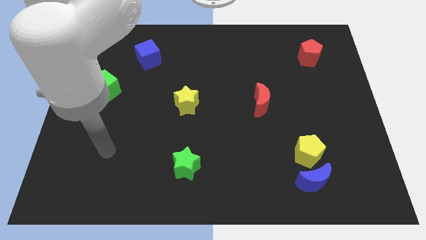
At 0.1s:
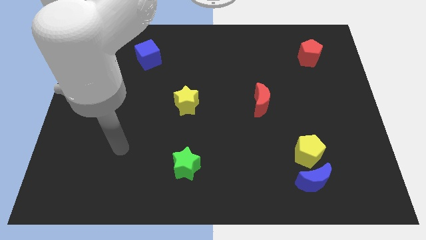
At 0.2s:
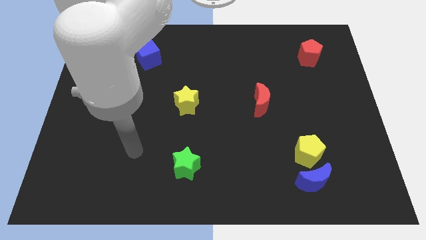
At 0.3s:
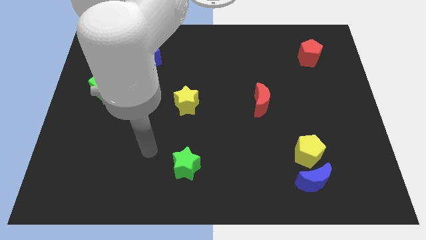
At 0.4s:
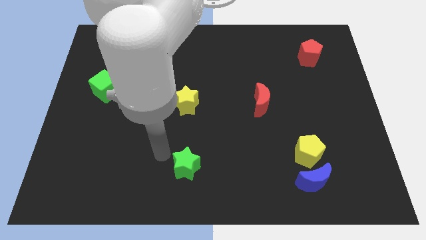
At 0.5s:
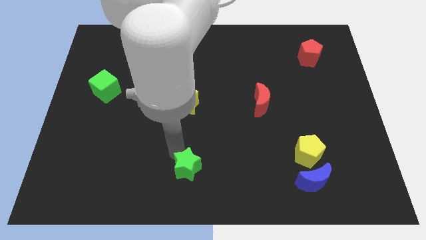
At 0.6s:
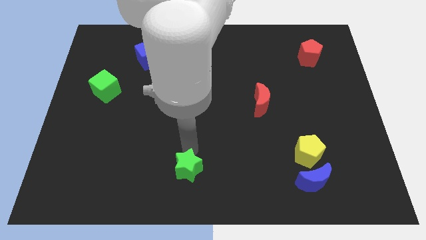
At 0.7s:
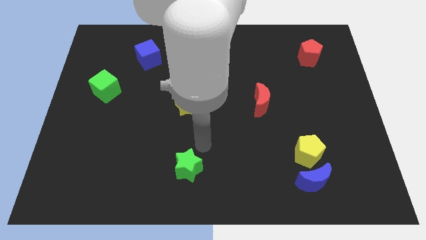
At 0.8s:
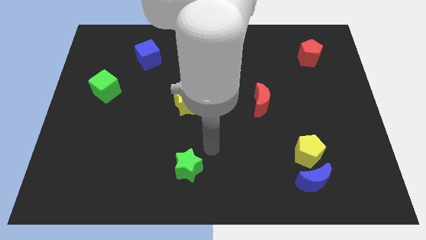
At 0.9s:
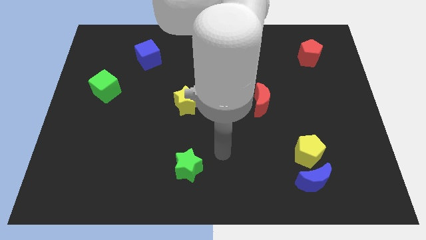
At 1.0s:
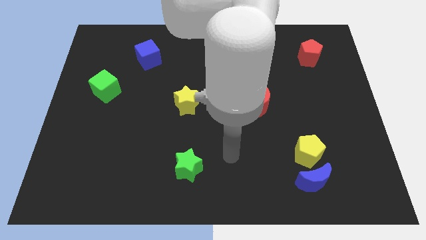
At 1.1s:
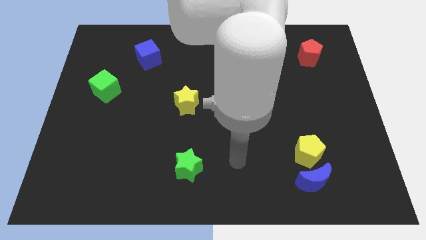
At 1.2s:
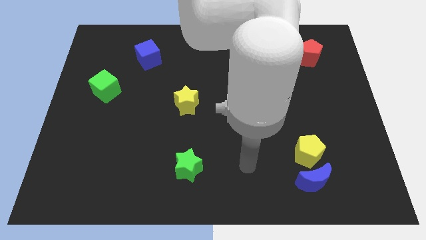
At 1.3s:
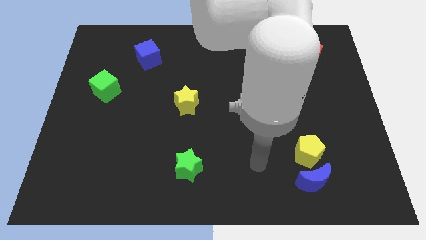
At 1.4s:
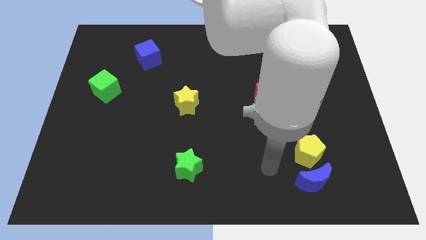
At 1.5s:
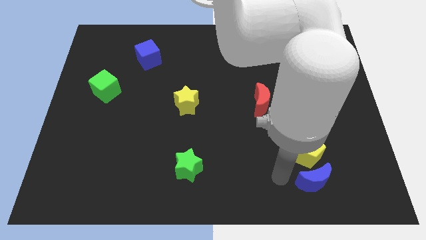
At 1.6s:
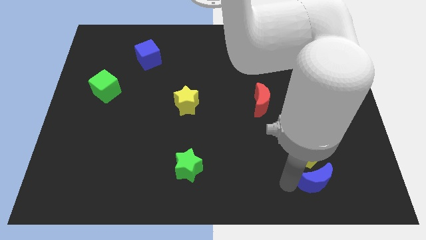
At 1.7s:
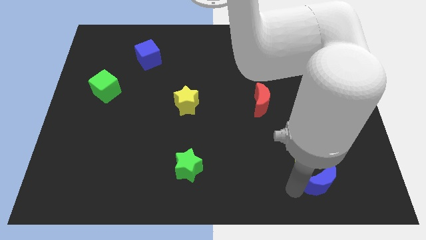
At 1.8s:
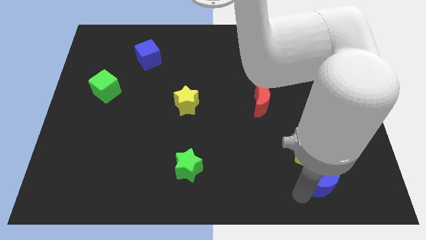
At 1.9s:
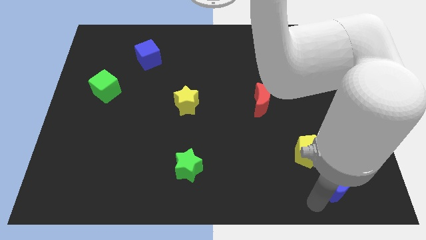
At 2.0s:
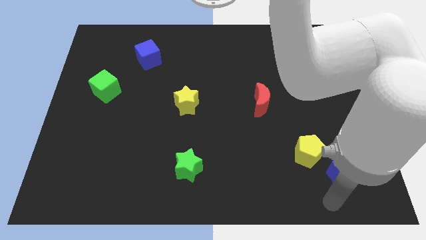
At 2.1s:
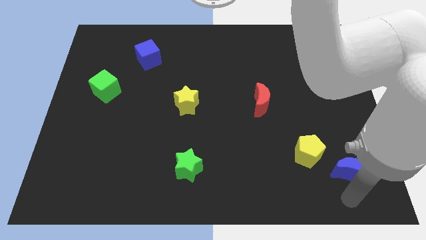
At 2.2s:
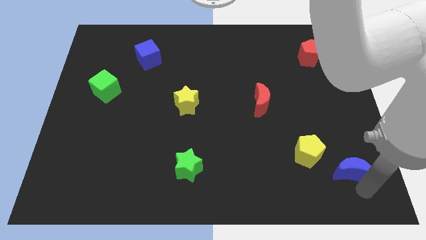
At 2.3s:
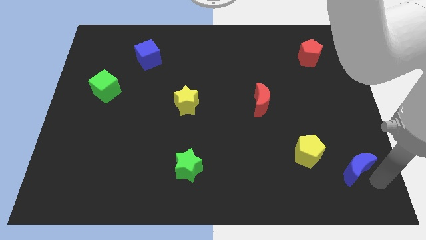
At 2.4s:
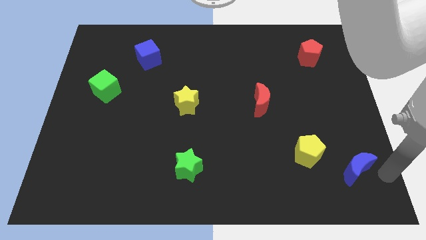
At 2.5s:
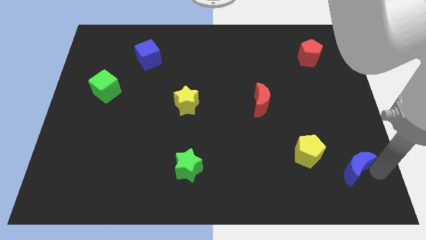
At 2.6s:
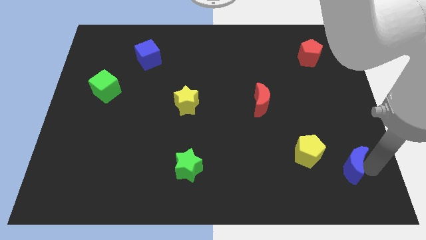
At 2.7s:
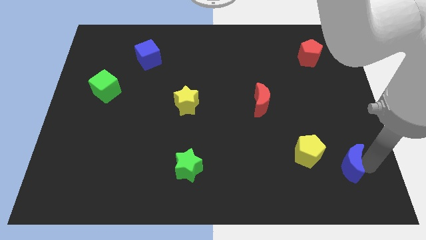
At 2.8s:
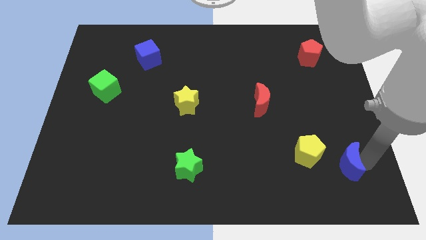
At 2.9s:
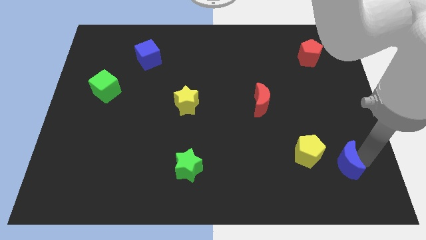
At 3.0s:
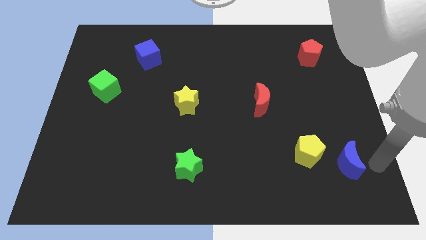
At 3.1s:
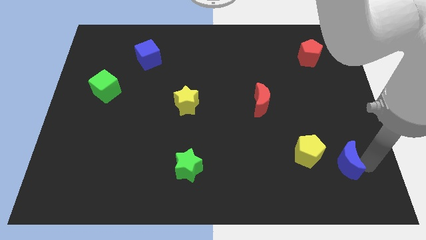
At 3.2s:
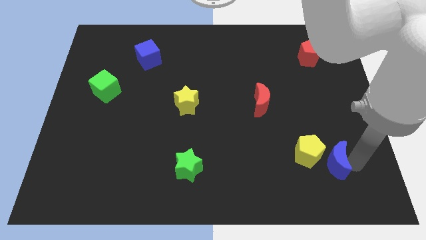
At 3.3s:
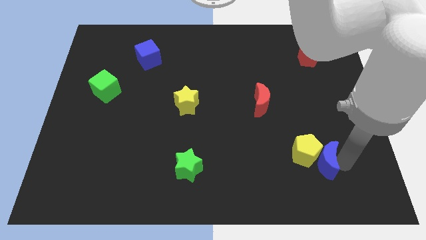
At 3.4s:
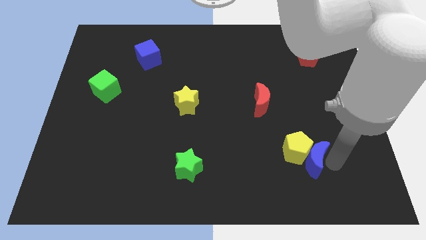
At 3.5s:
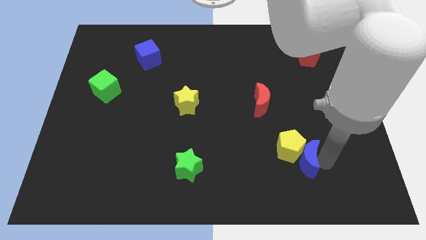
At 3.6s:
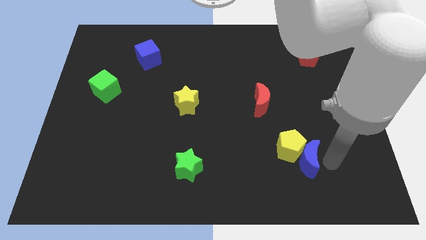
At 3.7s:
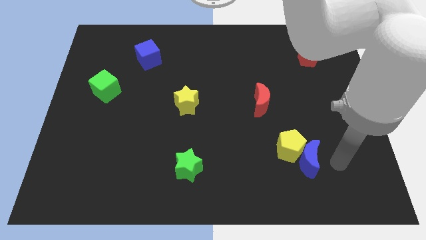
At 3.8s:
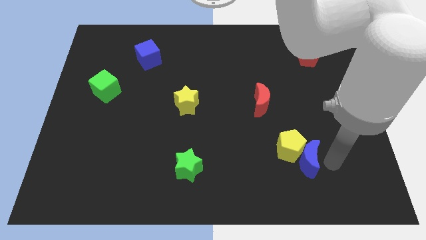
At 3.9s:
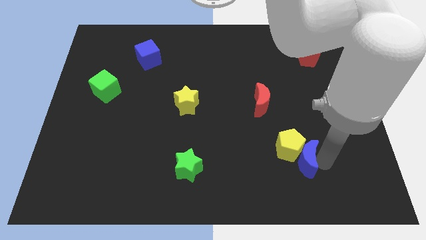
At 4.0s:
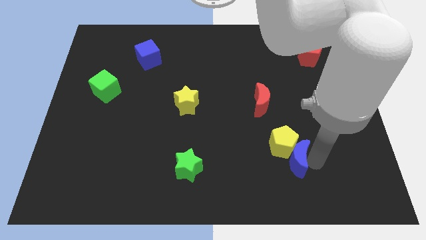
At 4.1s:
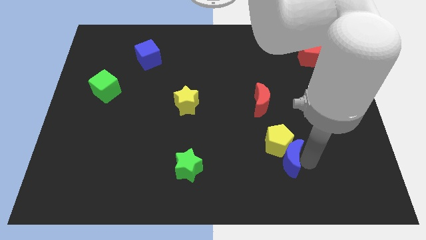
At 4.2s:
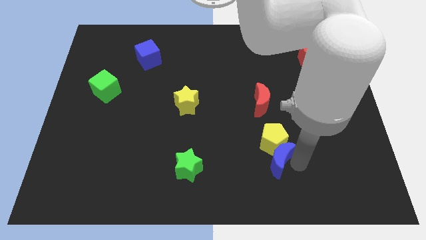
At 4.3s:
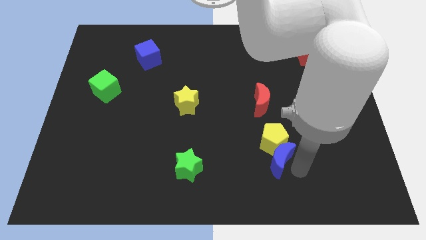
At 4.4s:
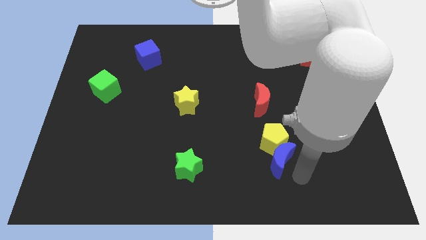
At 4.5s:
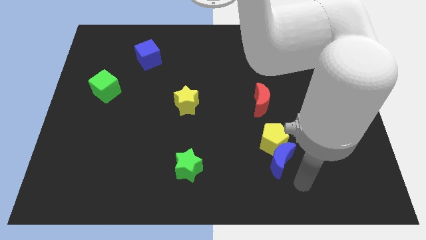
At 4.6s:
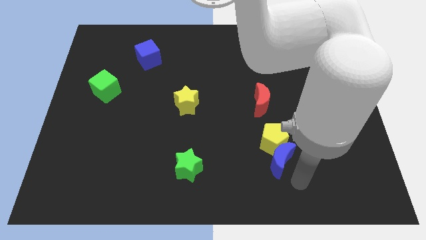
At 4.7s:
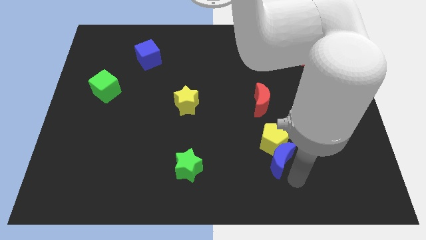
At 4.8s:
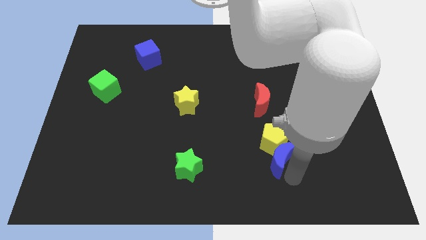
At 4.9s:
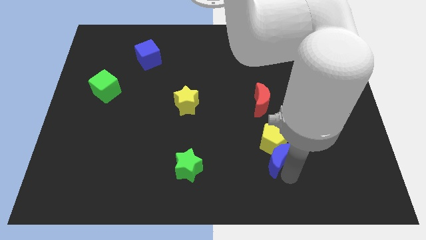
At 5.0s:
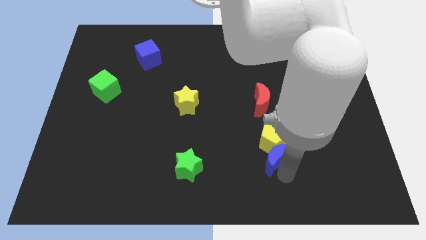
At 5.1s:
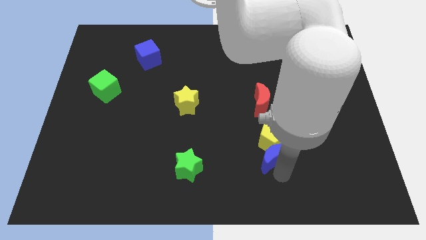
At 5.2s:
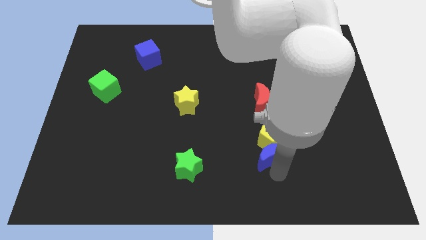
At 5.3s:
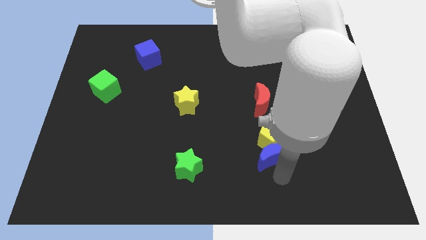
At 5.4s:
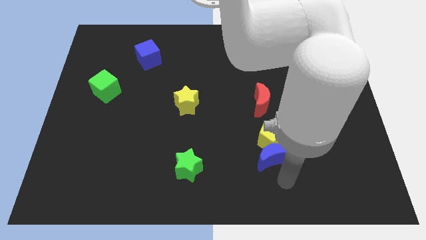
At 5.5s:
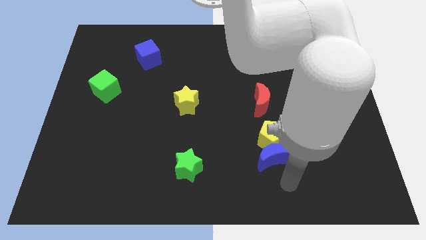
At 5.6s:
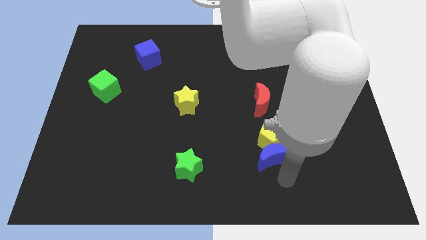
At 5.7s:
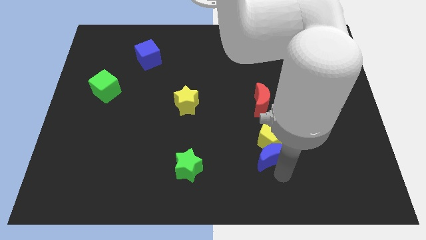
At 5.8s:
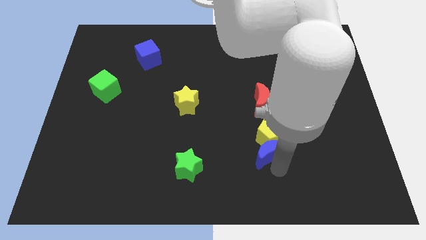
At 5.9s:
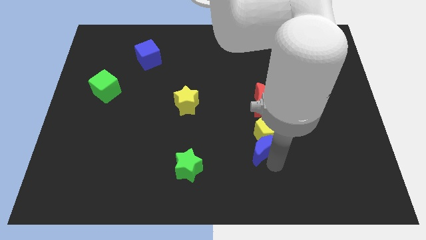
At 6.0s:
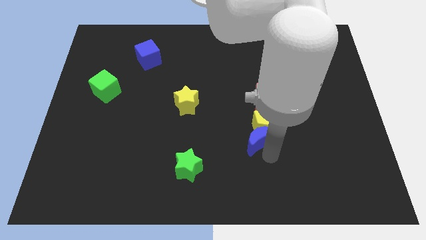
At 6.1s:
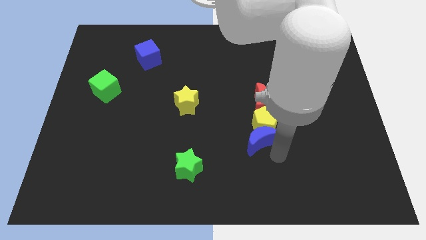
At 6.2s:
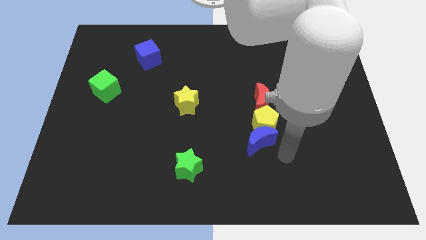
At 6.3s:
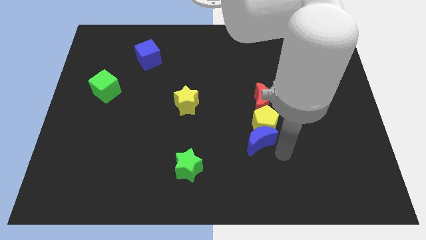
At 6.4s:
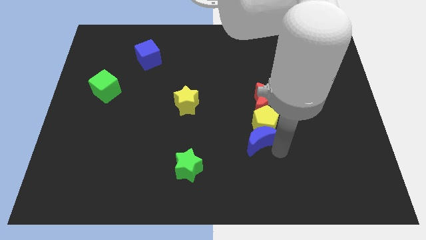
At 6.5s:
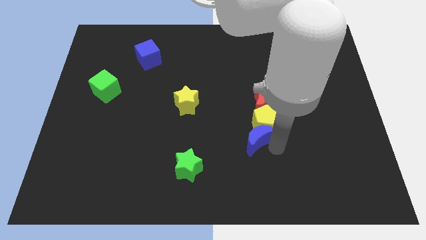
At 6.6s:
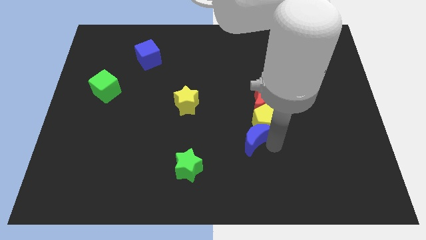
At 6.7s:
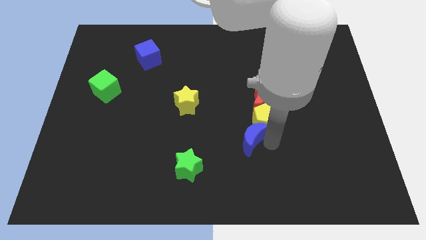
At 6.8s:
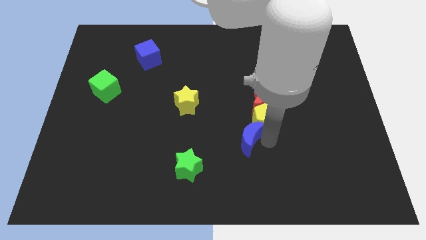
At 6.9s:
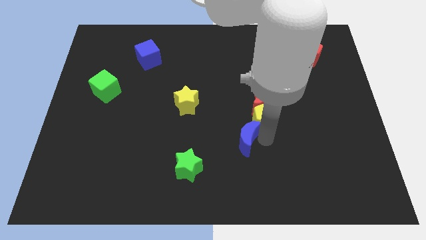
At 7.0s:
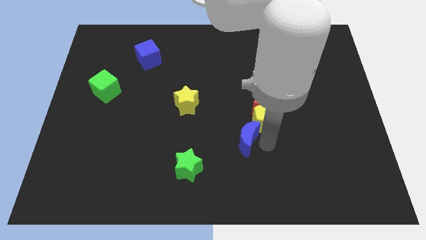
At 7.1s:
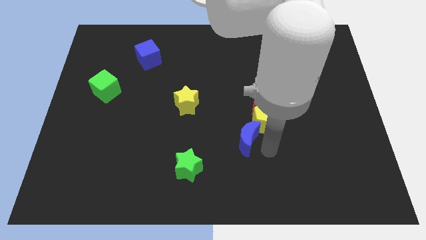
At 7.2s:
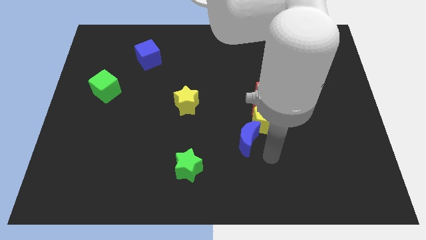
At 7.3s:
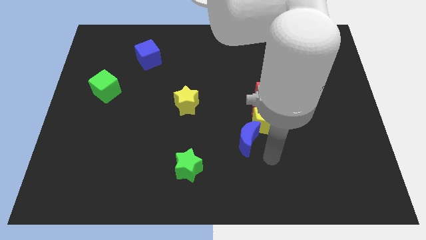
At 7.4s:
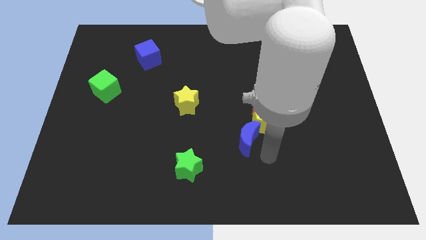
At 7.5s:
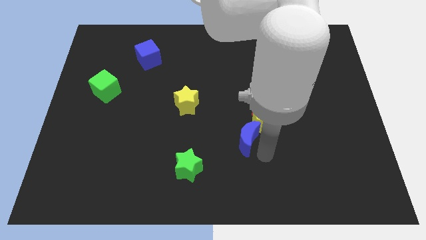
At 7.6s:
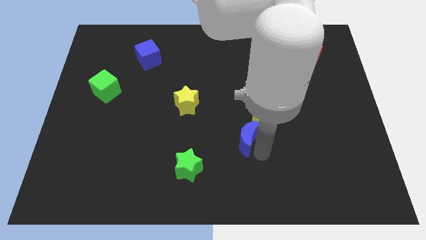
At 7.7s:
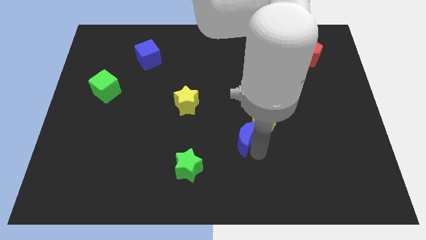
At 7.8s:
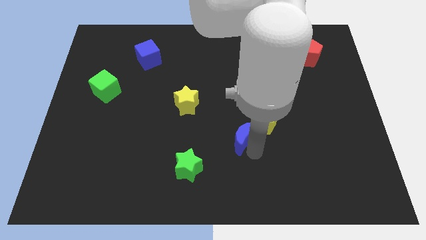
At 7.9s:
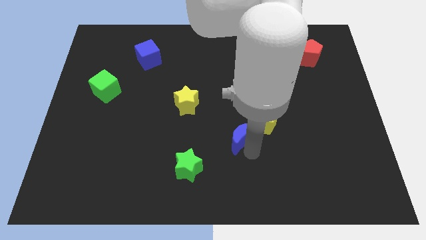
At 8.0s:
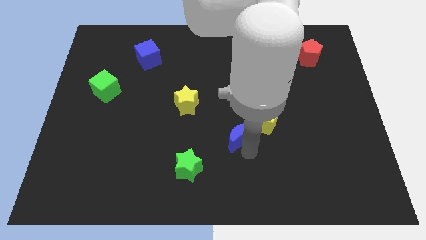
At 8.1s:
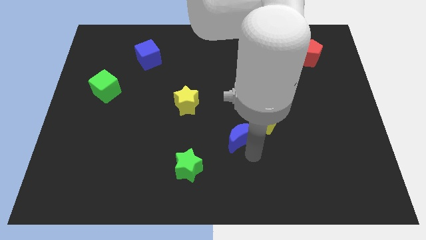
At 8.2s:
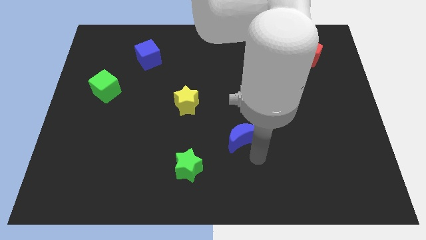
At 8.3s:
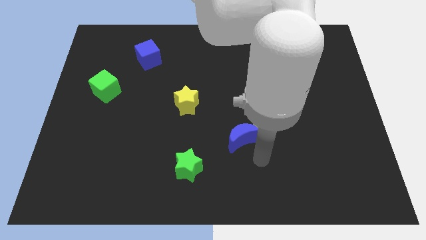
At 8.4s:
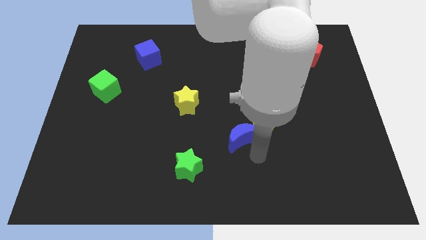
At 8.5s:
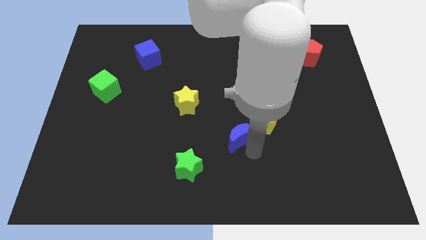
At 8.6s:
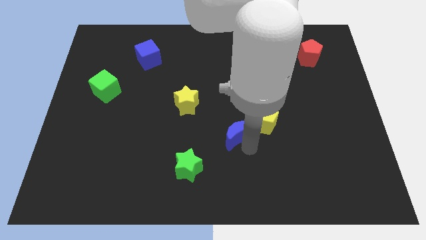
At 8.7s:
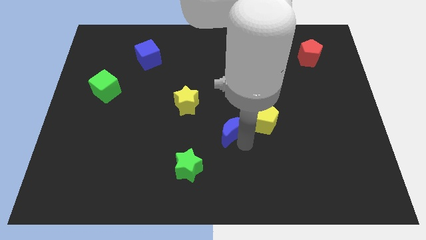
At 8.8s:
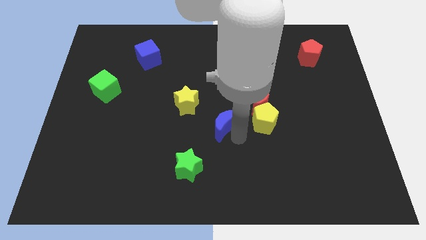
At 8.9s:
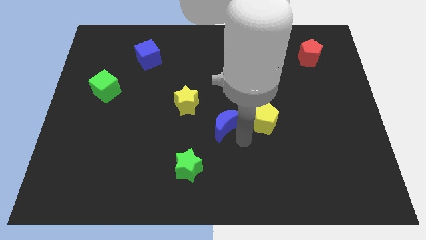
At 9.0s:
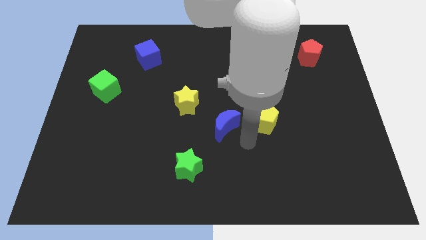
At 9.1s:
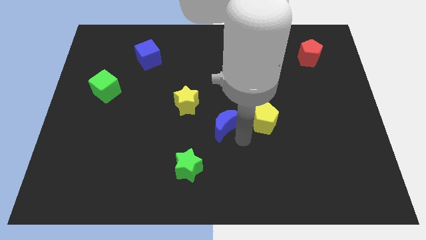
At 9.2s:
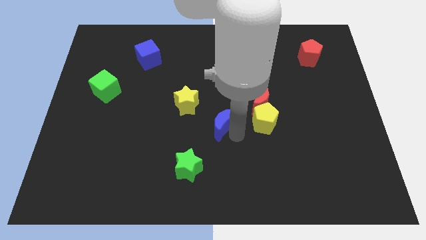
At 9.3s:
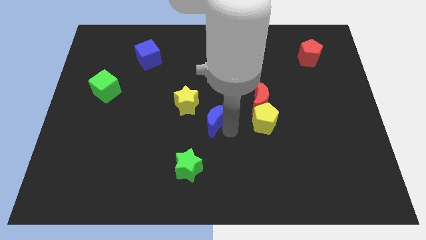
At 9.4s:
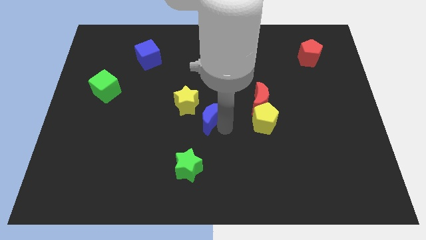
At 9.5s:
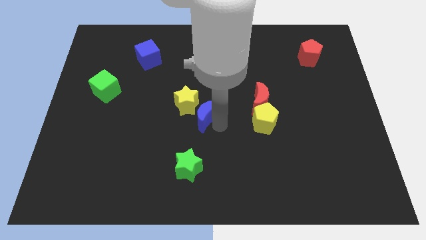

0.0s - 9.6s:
slide the blue moon to the yellow star
